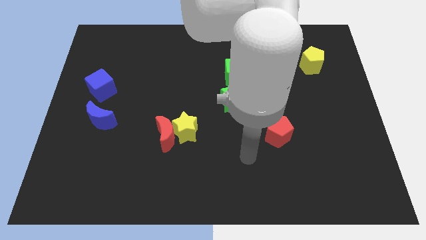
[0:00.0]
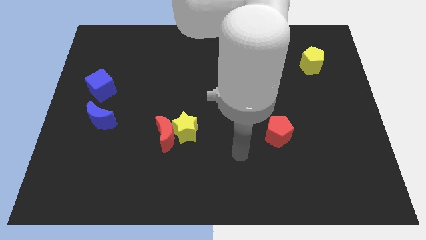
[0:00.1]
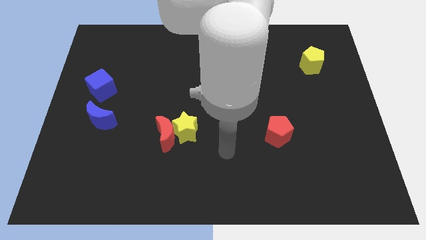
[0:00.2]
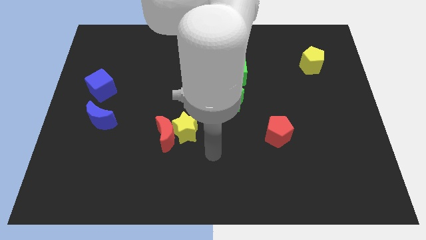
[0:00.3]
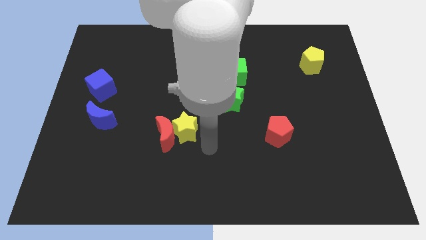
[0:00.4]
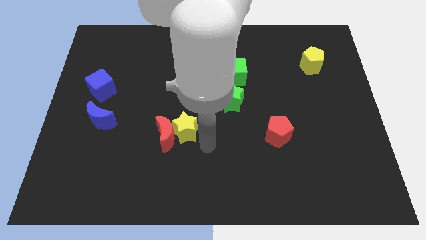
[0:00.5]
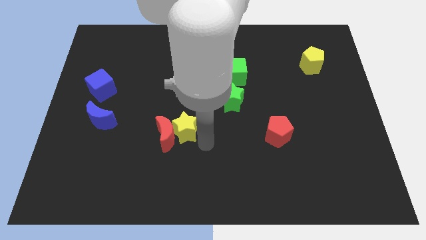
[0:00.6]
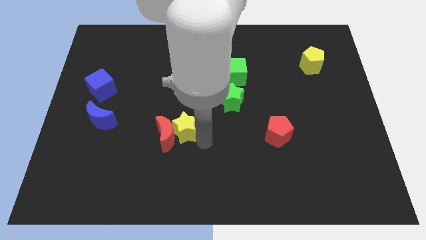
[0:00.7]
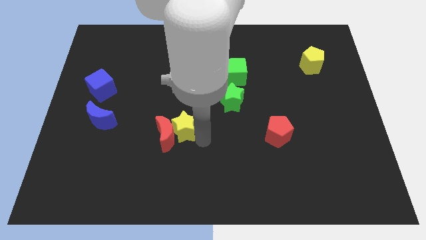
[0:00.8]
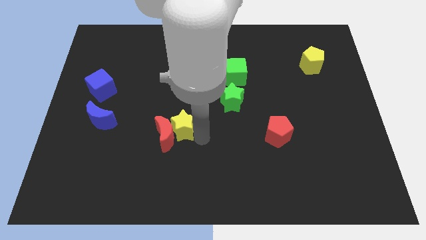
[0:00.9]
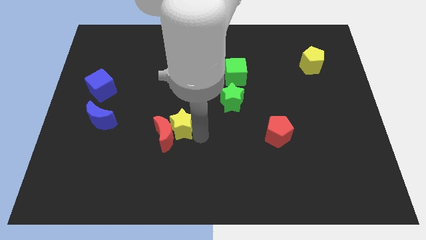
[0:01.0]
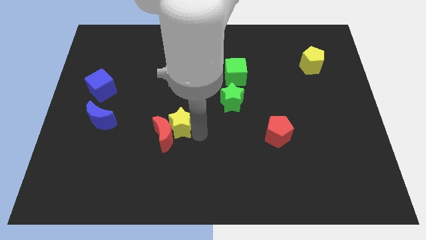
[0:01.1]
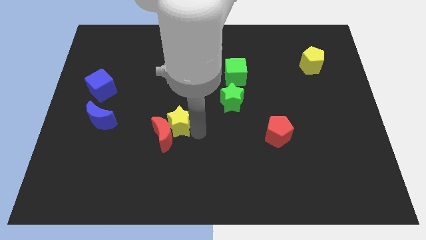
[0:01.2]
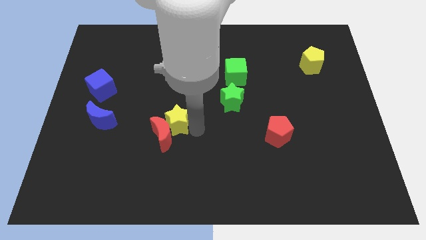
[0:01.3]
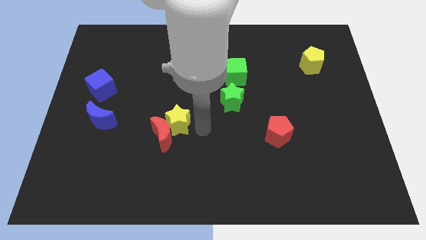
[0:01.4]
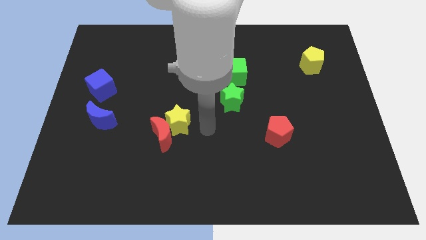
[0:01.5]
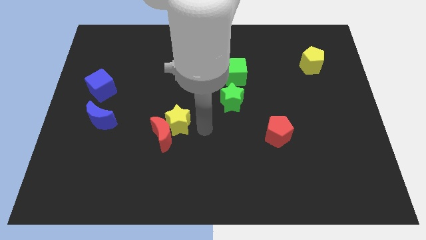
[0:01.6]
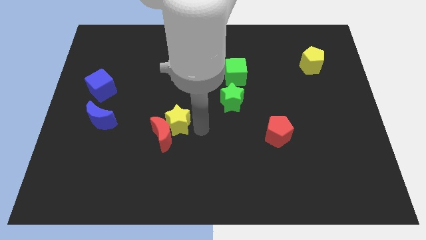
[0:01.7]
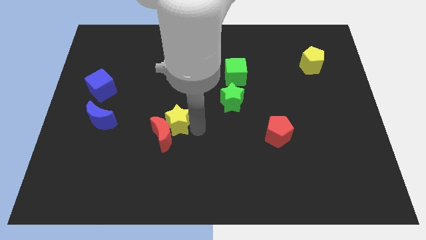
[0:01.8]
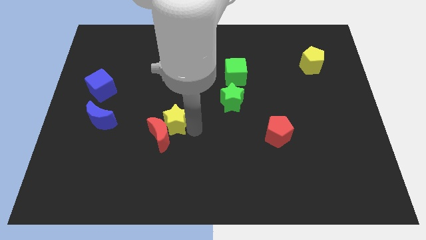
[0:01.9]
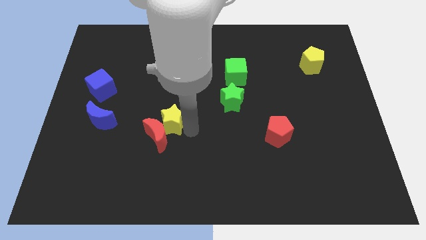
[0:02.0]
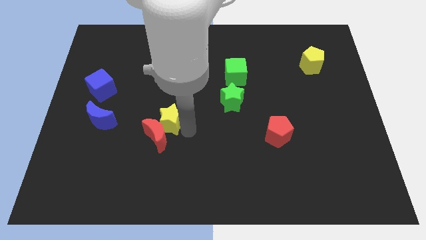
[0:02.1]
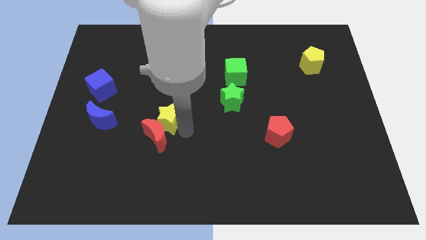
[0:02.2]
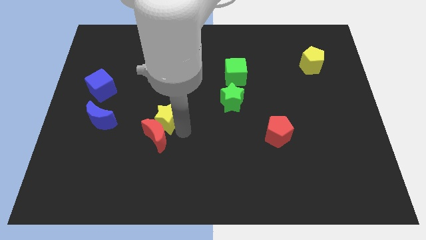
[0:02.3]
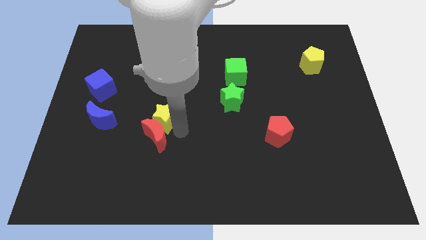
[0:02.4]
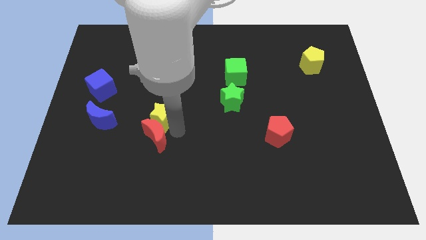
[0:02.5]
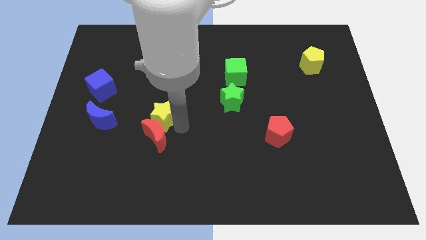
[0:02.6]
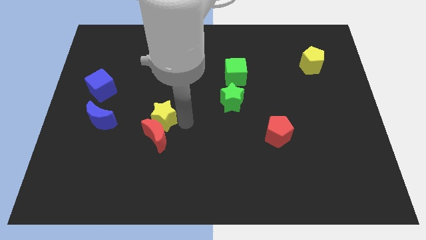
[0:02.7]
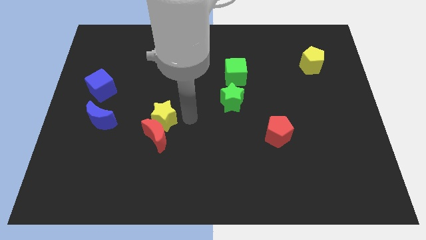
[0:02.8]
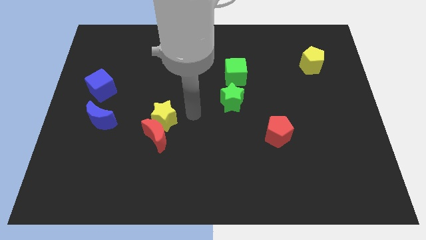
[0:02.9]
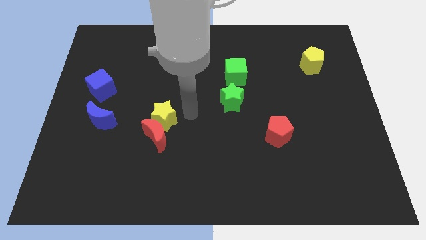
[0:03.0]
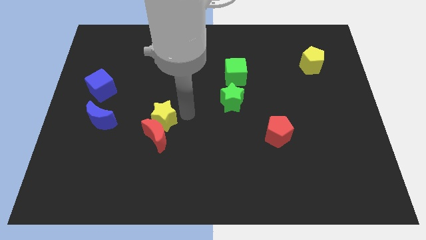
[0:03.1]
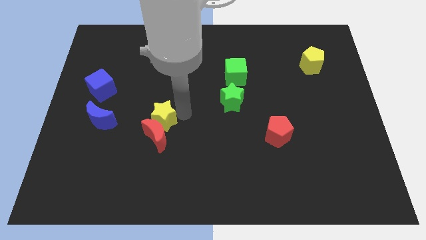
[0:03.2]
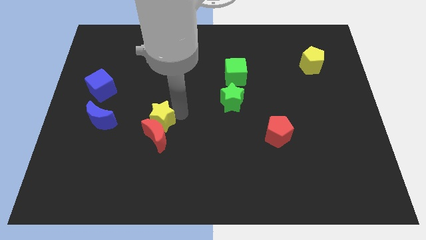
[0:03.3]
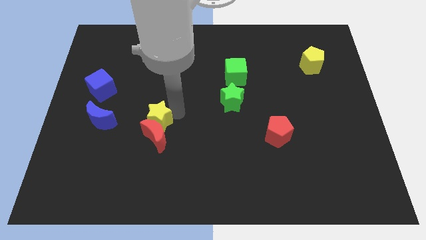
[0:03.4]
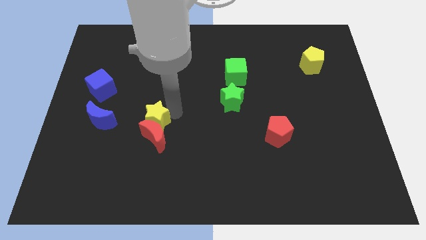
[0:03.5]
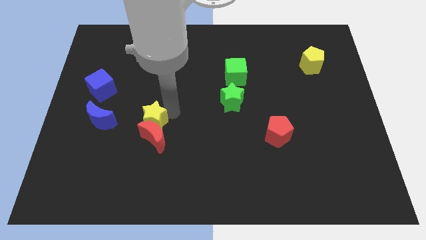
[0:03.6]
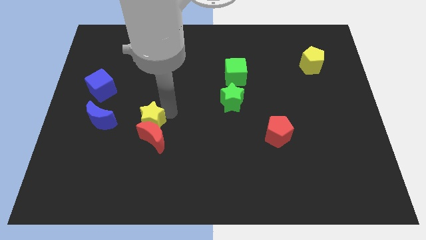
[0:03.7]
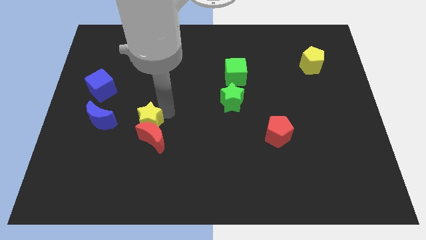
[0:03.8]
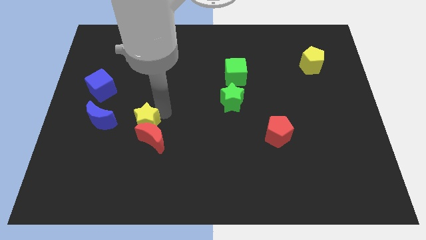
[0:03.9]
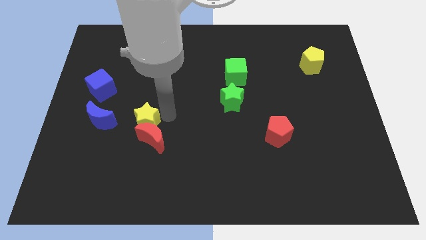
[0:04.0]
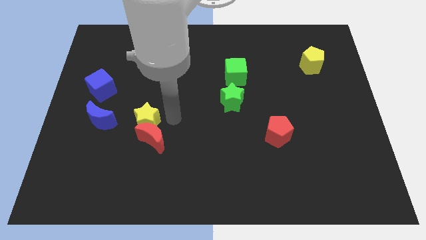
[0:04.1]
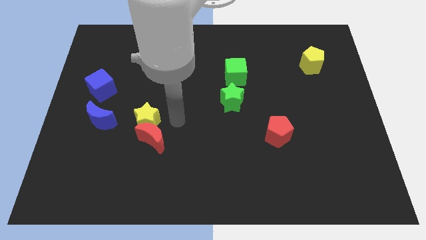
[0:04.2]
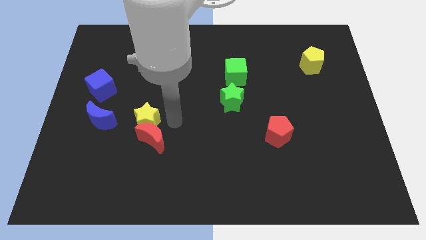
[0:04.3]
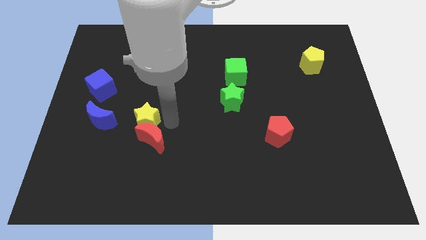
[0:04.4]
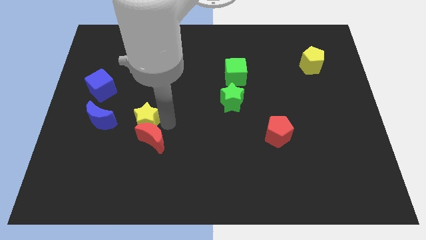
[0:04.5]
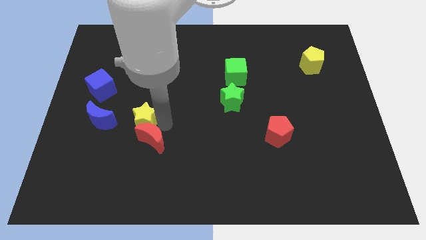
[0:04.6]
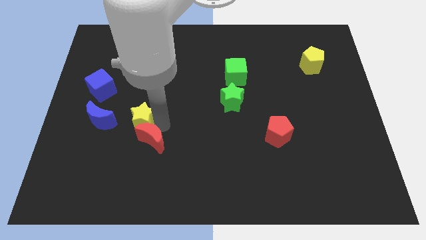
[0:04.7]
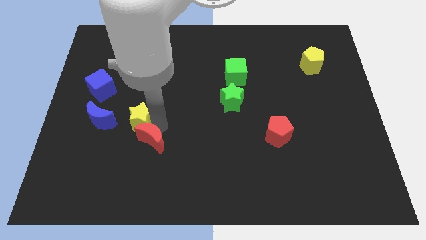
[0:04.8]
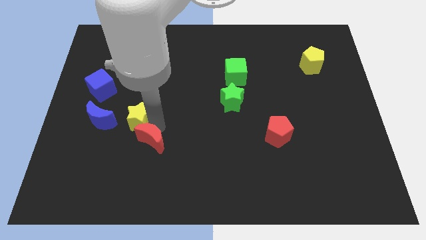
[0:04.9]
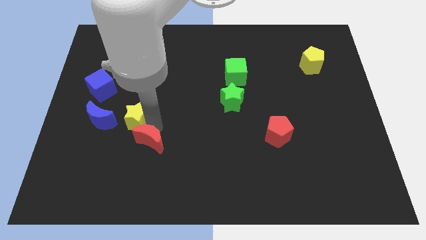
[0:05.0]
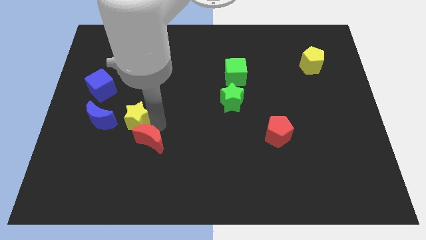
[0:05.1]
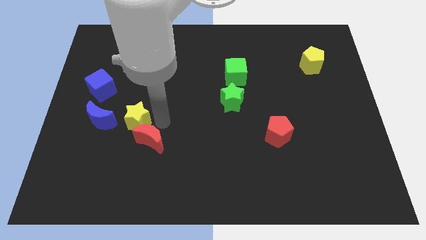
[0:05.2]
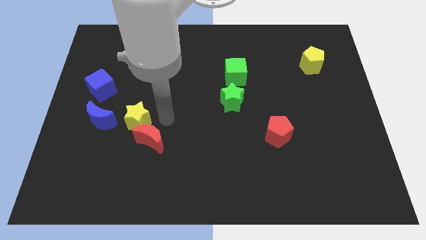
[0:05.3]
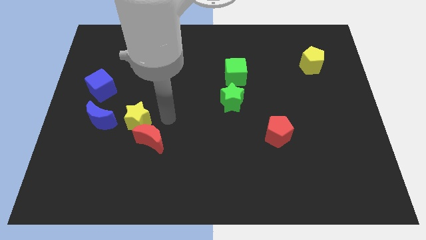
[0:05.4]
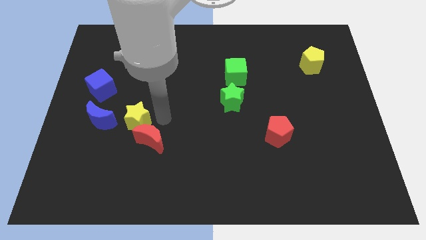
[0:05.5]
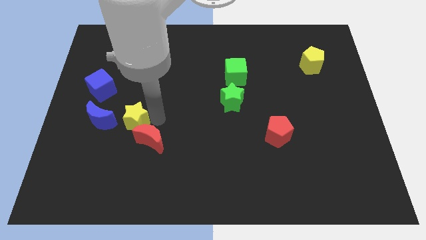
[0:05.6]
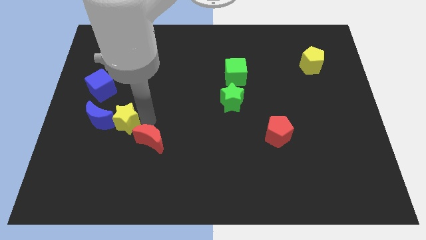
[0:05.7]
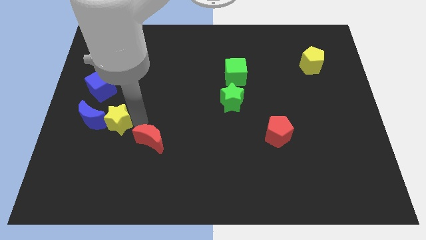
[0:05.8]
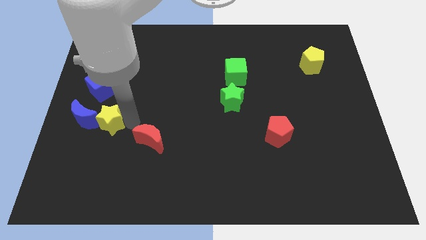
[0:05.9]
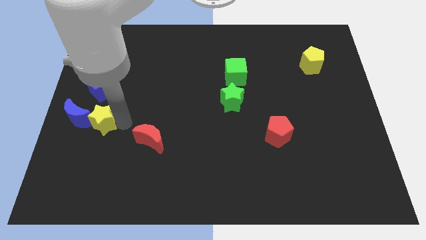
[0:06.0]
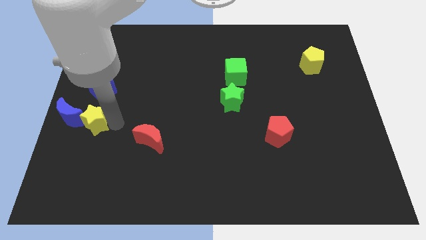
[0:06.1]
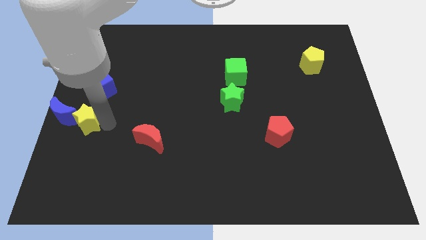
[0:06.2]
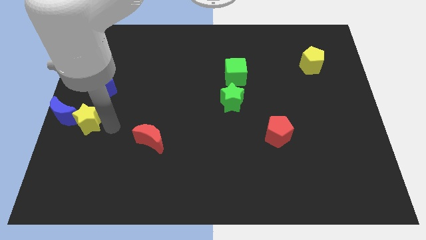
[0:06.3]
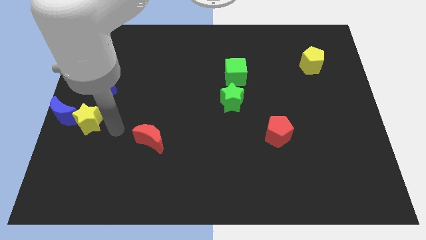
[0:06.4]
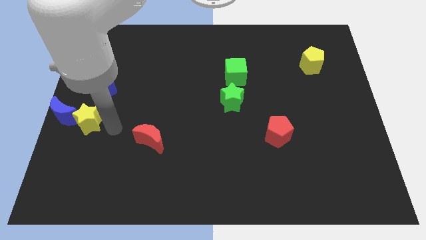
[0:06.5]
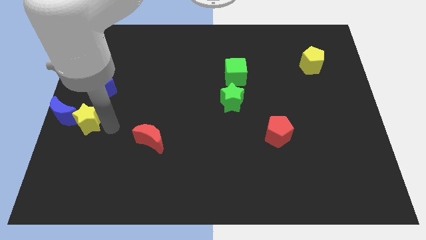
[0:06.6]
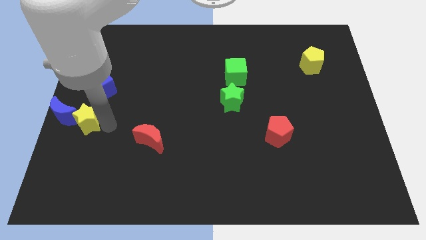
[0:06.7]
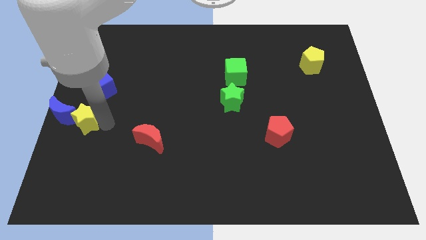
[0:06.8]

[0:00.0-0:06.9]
slide the yellow star close to the blue moon

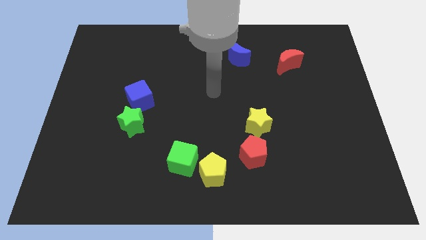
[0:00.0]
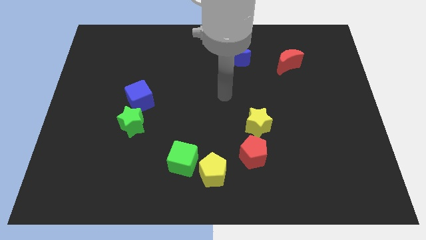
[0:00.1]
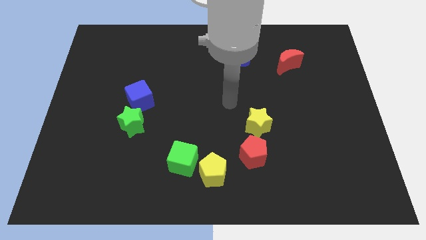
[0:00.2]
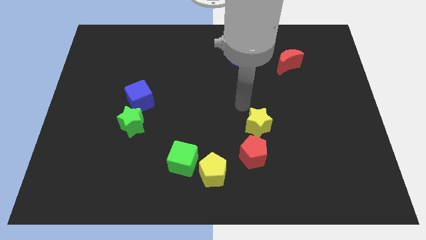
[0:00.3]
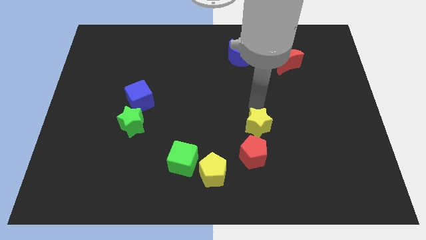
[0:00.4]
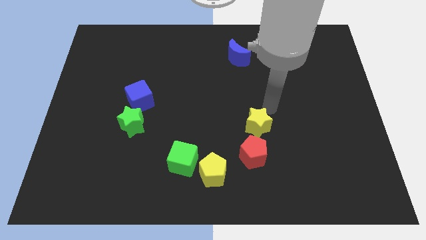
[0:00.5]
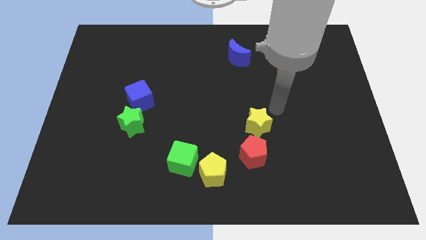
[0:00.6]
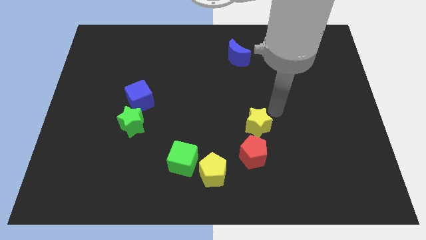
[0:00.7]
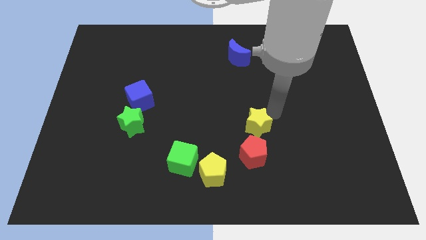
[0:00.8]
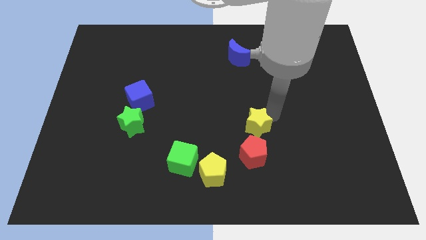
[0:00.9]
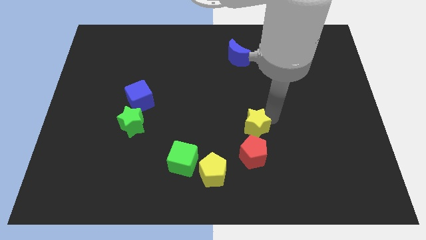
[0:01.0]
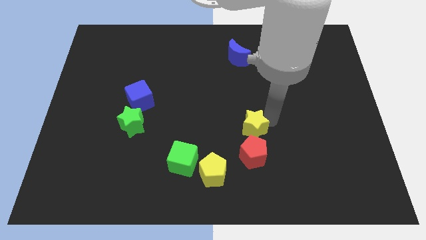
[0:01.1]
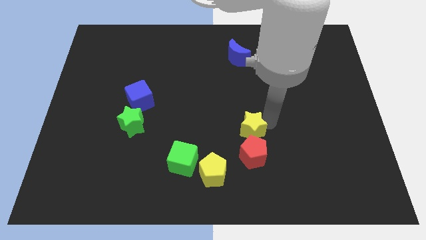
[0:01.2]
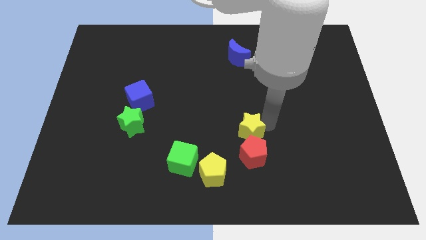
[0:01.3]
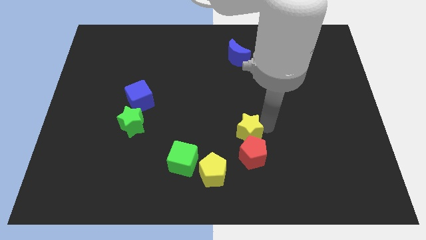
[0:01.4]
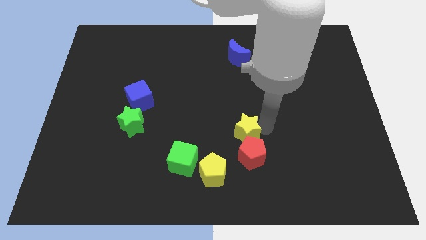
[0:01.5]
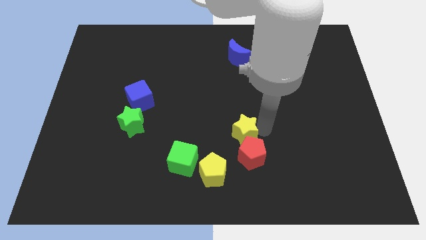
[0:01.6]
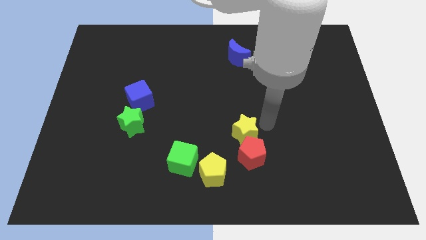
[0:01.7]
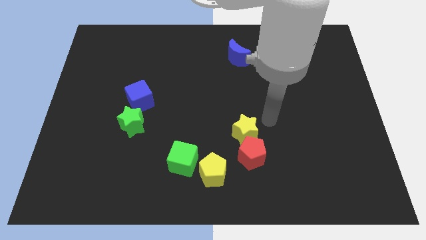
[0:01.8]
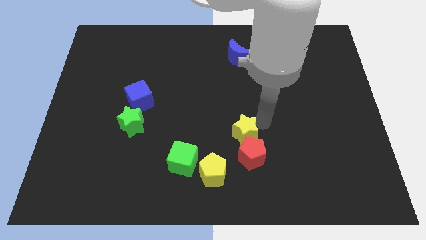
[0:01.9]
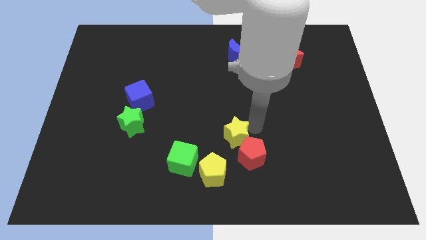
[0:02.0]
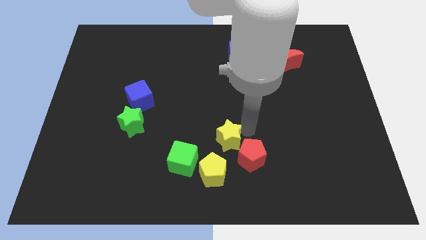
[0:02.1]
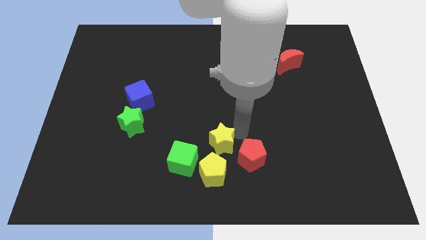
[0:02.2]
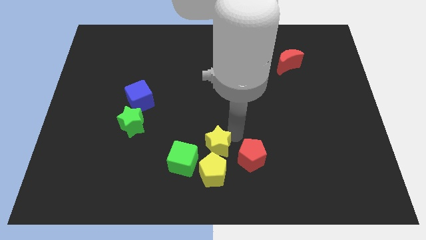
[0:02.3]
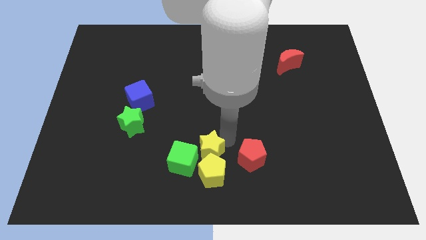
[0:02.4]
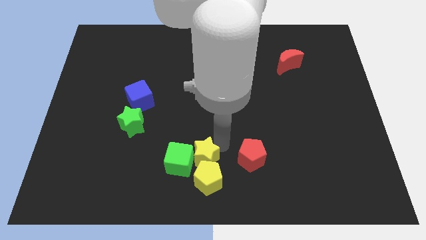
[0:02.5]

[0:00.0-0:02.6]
put the yellow star close to the green cube
